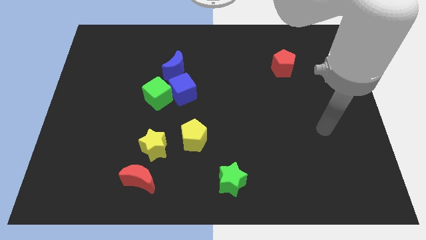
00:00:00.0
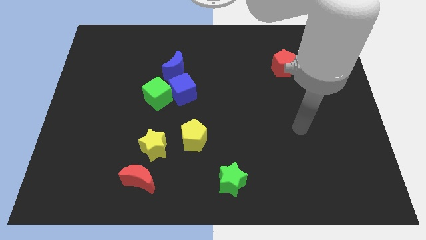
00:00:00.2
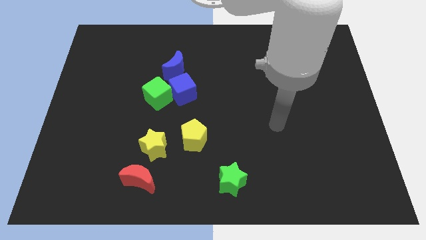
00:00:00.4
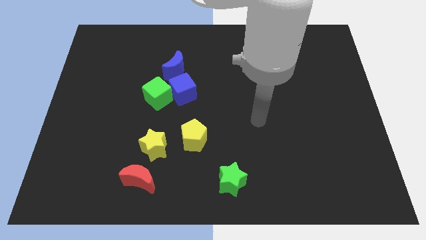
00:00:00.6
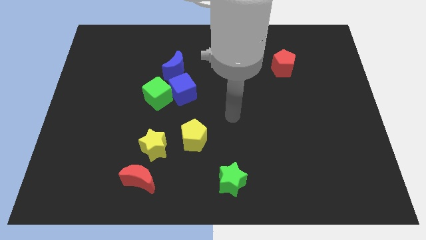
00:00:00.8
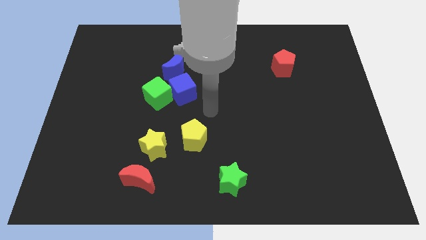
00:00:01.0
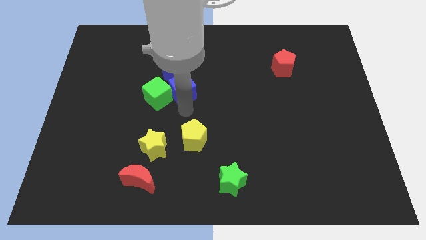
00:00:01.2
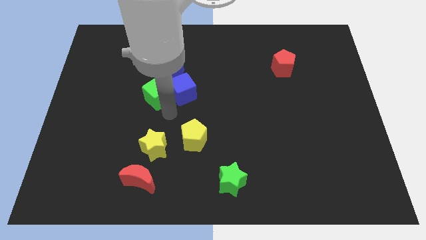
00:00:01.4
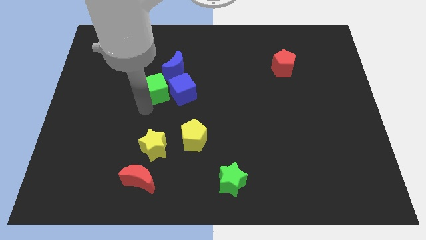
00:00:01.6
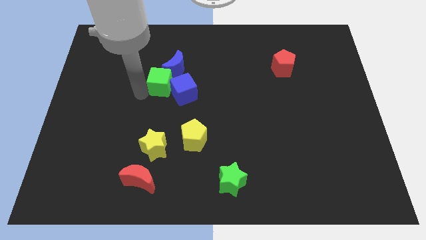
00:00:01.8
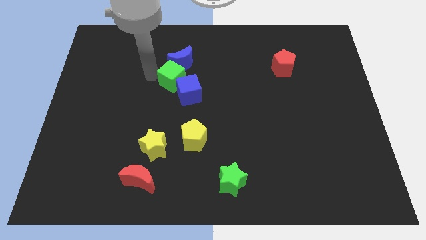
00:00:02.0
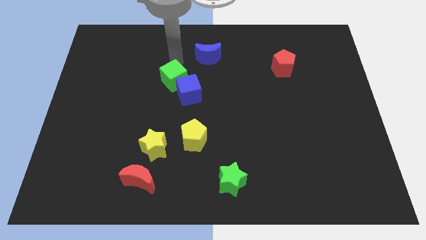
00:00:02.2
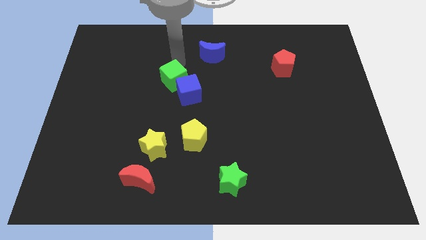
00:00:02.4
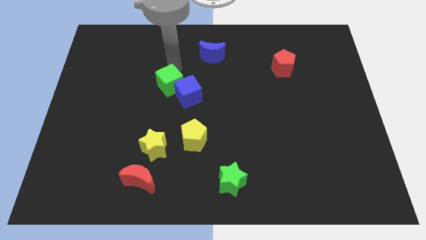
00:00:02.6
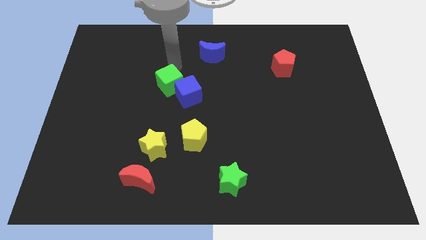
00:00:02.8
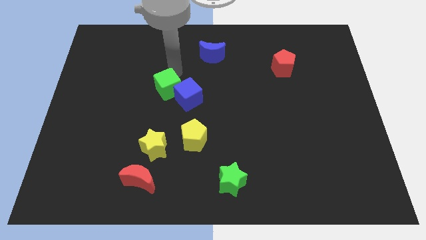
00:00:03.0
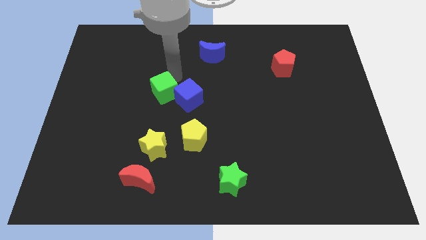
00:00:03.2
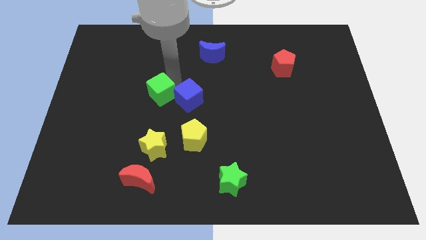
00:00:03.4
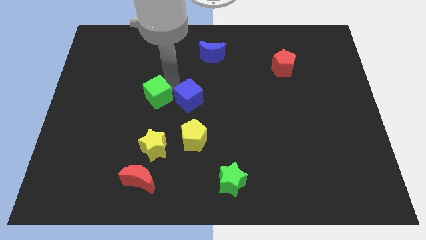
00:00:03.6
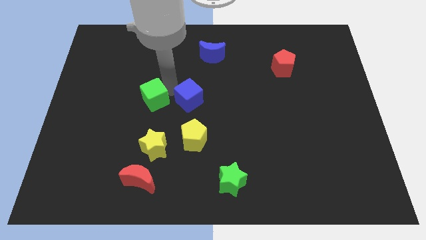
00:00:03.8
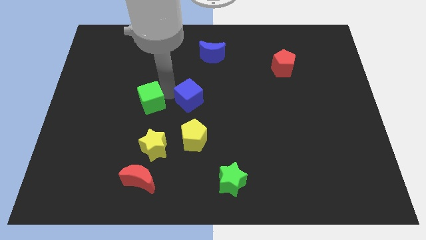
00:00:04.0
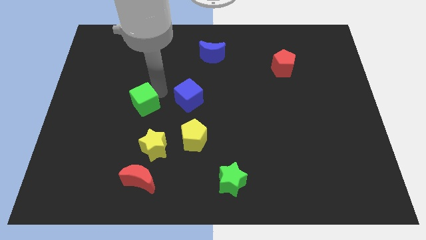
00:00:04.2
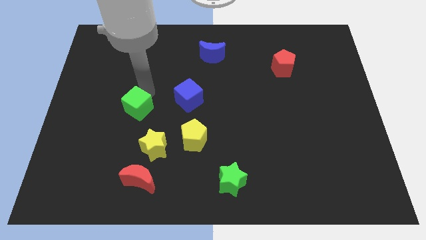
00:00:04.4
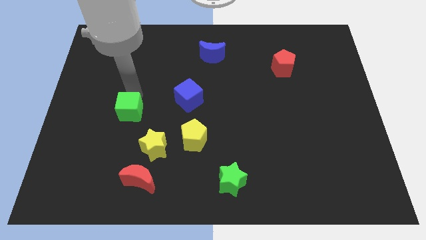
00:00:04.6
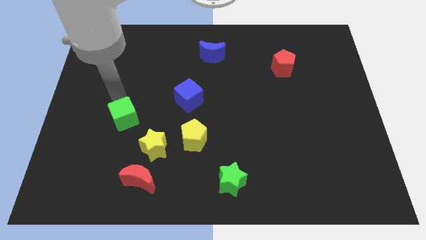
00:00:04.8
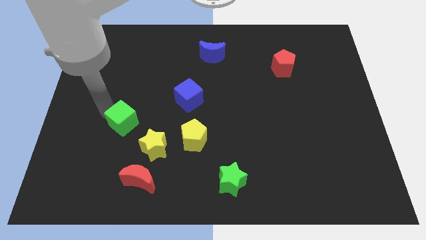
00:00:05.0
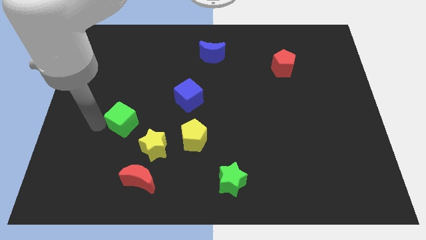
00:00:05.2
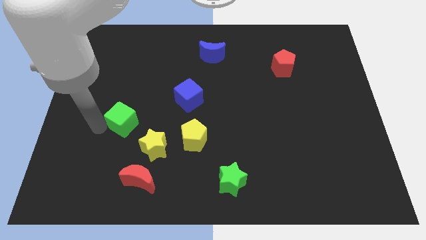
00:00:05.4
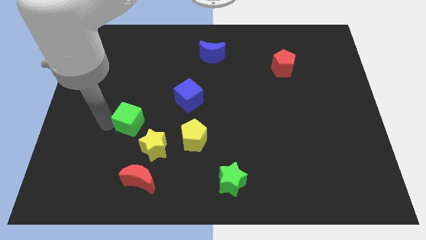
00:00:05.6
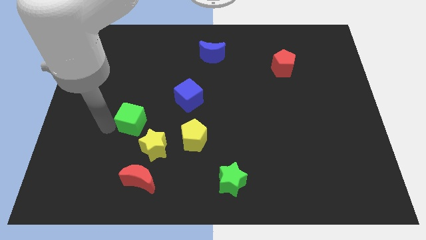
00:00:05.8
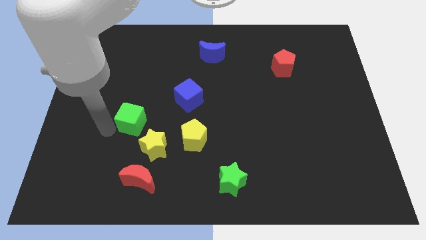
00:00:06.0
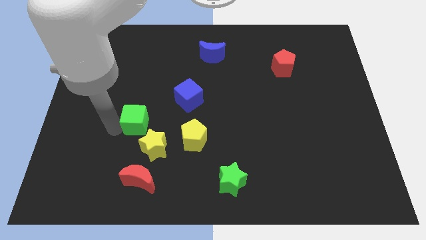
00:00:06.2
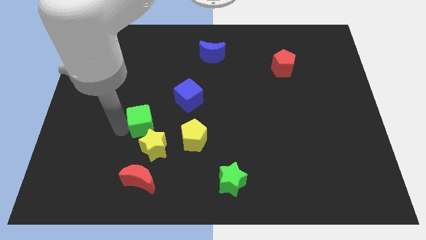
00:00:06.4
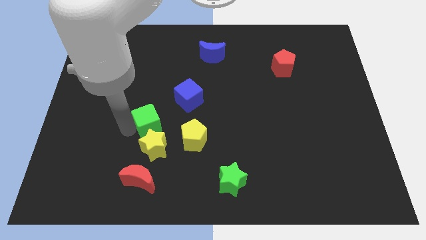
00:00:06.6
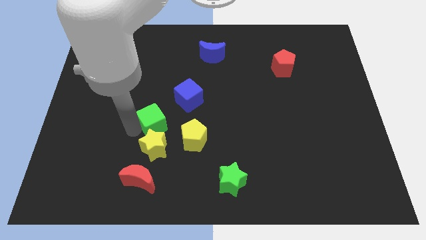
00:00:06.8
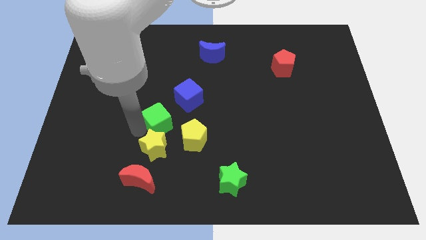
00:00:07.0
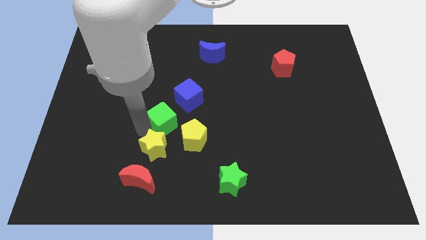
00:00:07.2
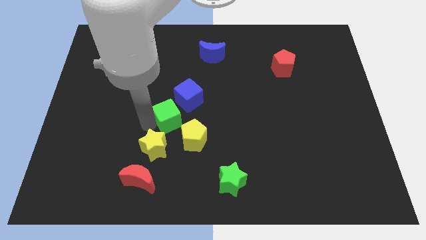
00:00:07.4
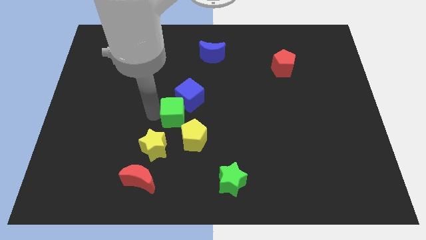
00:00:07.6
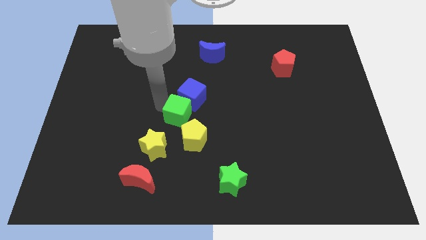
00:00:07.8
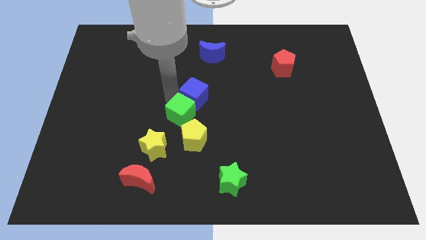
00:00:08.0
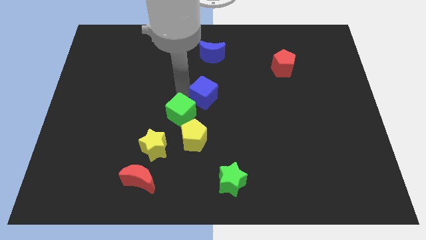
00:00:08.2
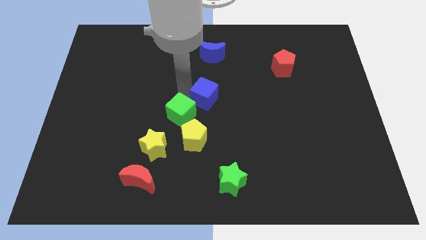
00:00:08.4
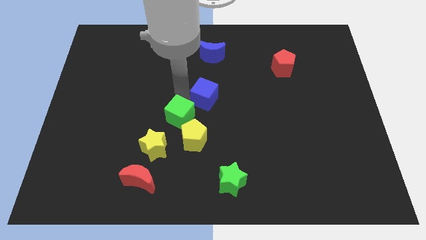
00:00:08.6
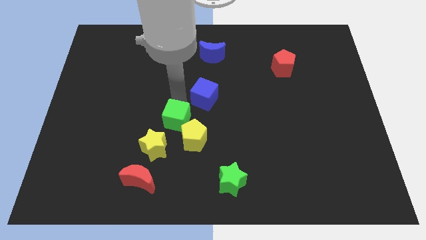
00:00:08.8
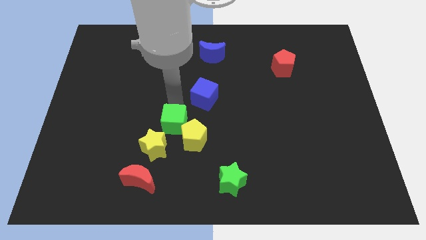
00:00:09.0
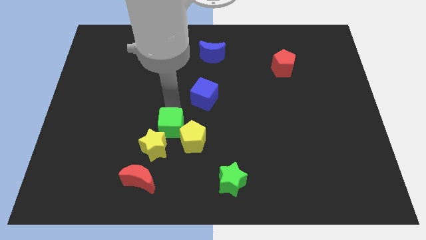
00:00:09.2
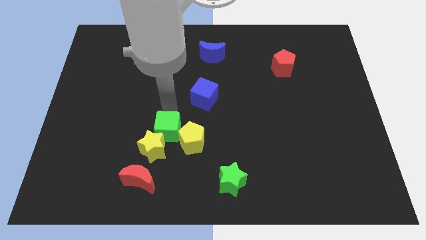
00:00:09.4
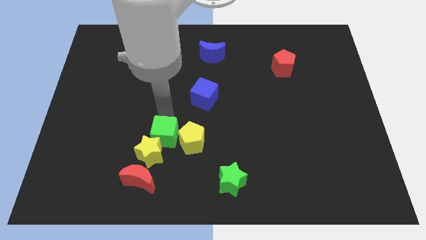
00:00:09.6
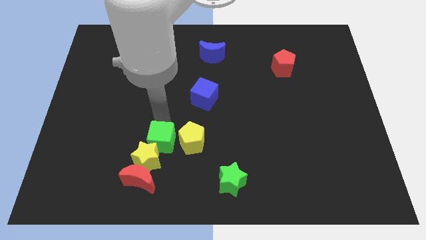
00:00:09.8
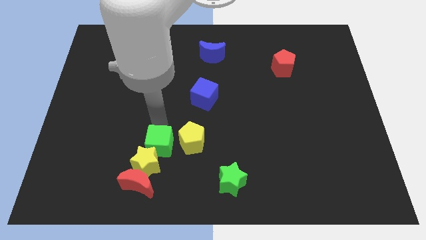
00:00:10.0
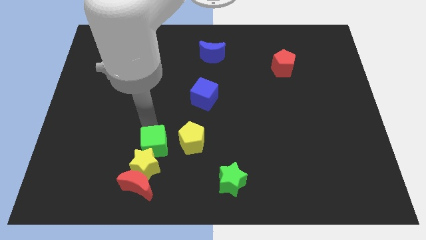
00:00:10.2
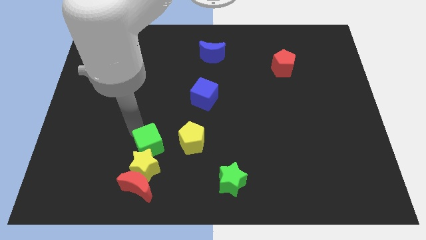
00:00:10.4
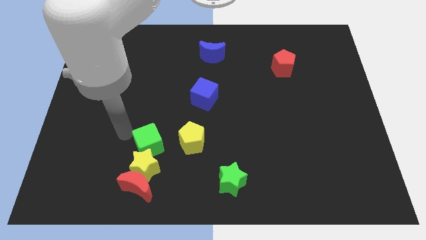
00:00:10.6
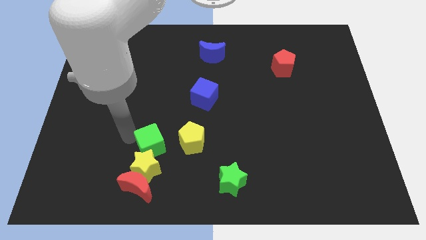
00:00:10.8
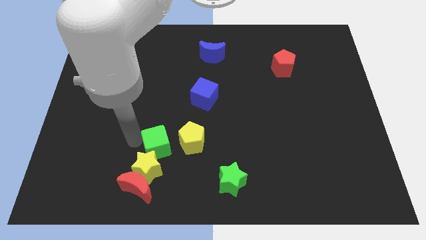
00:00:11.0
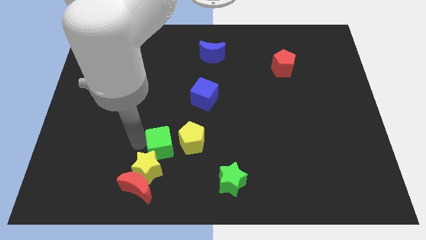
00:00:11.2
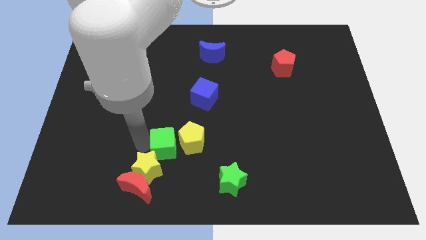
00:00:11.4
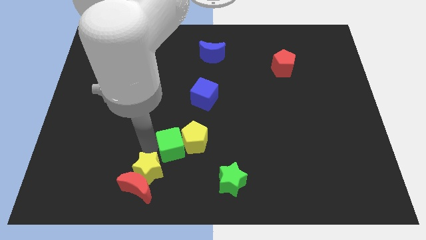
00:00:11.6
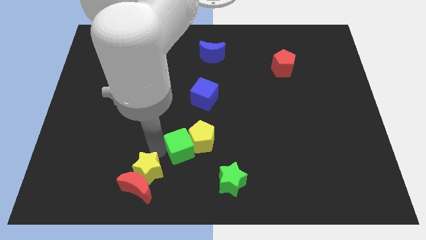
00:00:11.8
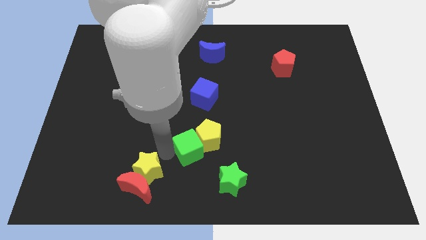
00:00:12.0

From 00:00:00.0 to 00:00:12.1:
put the green cube to the bottom of the yellow pentagon

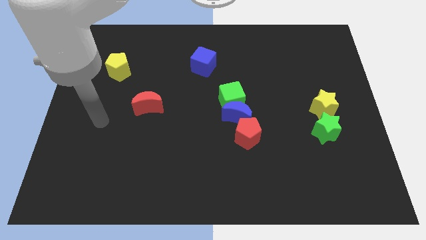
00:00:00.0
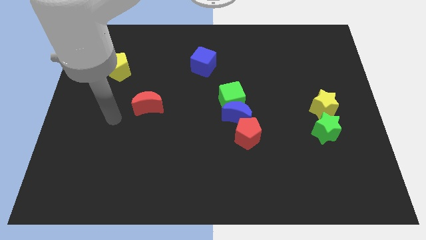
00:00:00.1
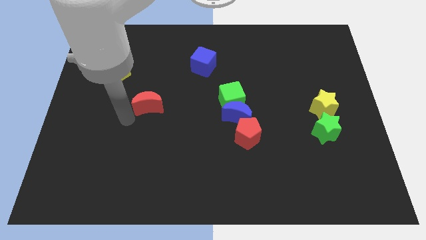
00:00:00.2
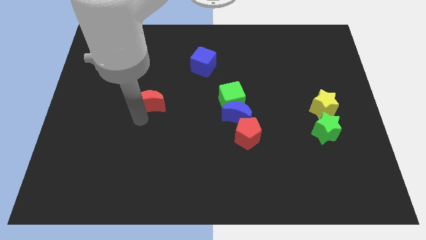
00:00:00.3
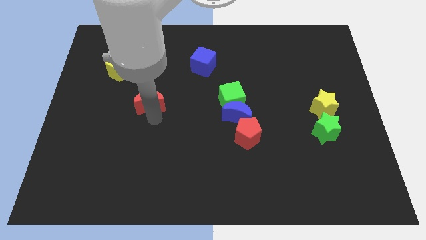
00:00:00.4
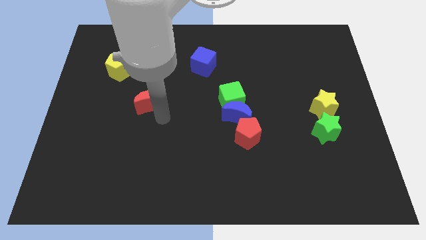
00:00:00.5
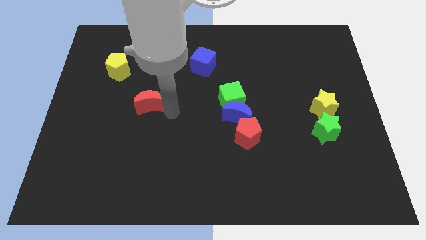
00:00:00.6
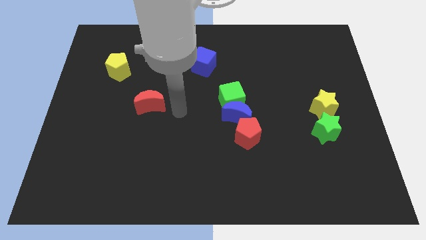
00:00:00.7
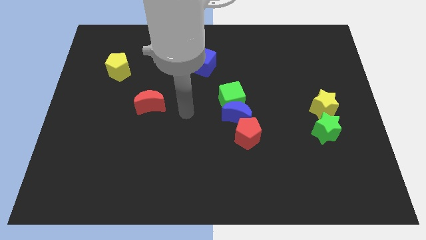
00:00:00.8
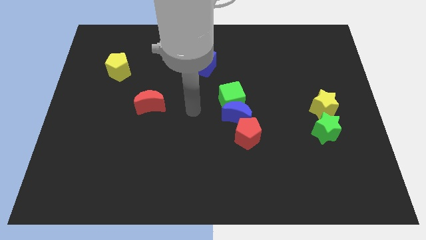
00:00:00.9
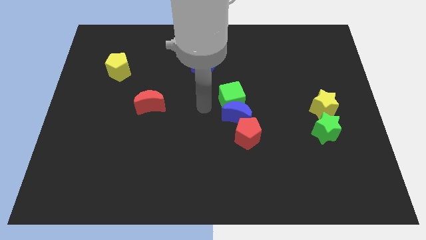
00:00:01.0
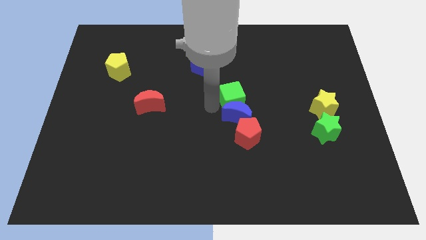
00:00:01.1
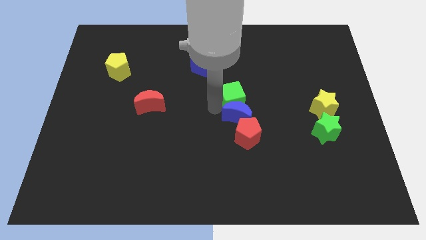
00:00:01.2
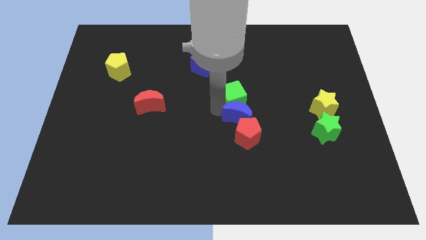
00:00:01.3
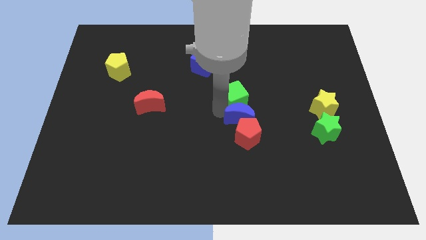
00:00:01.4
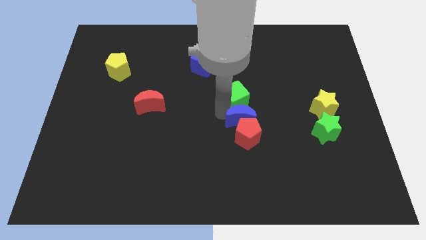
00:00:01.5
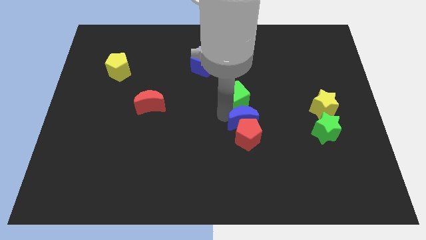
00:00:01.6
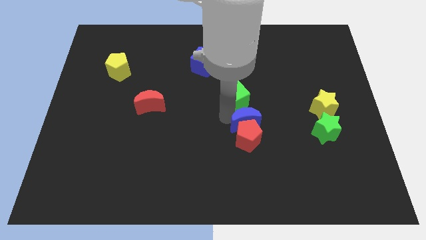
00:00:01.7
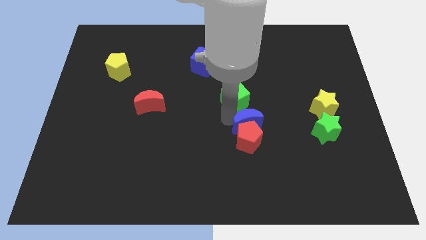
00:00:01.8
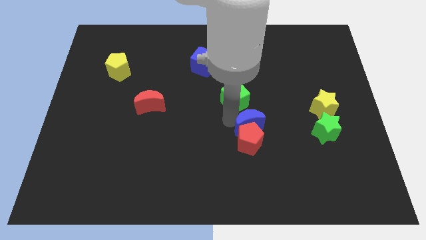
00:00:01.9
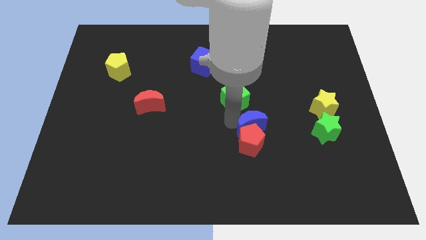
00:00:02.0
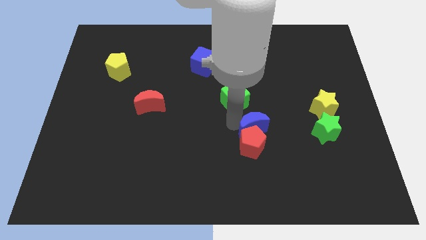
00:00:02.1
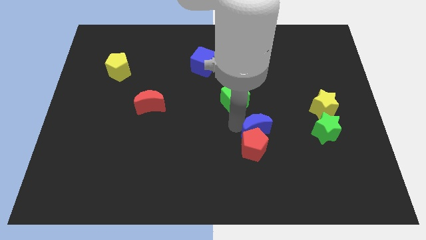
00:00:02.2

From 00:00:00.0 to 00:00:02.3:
push the blue moon to the left of the green star

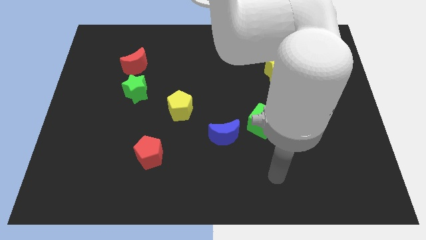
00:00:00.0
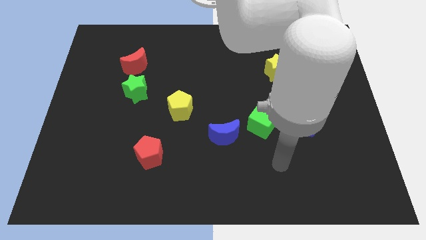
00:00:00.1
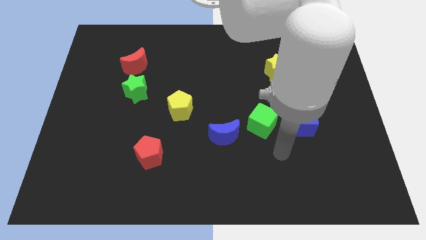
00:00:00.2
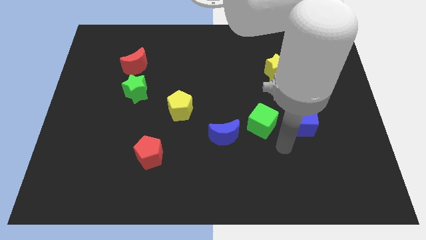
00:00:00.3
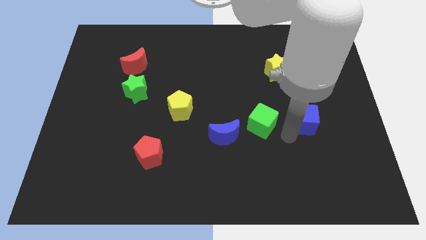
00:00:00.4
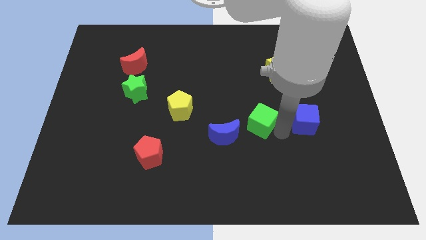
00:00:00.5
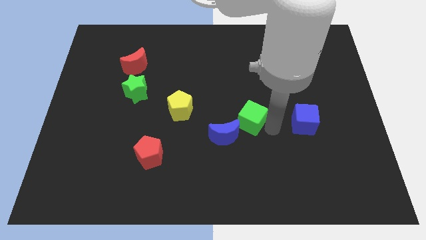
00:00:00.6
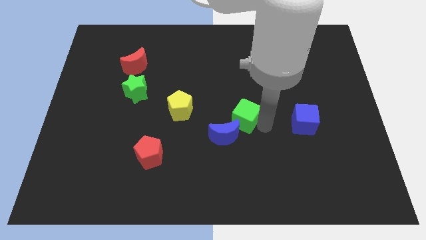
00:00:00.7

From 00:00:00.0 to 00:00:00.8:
slide the green cube to the right of the yellow pentagon
